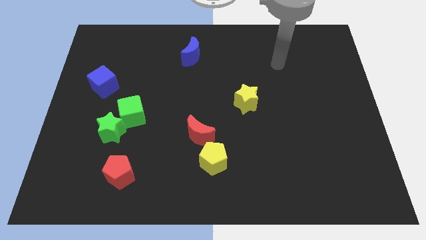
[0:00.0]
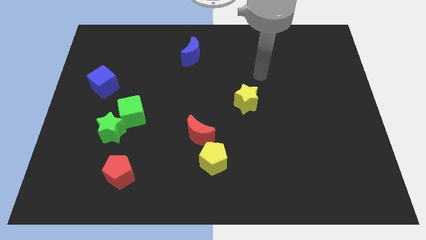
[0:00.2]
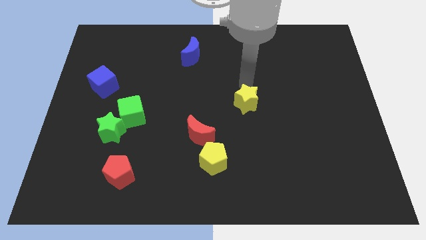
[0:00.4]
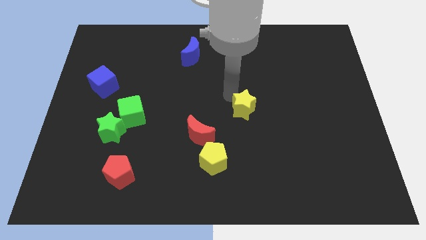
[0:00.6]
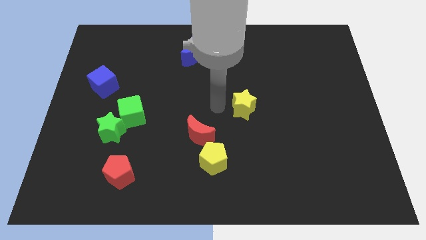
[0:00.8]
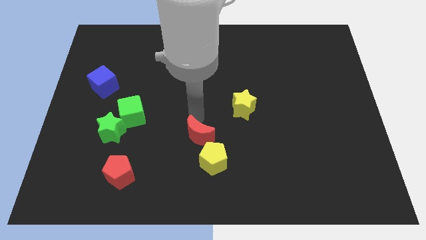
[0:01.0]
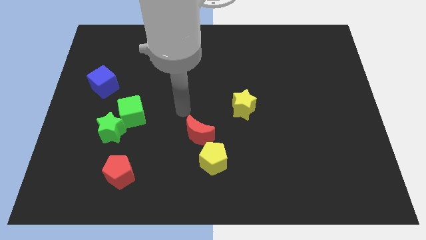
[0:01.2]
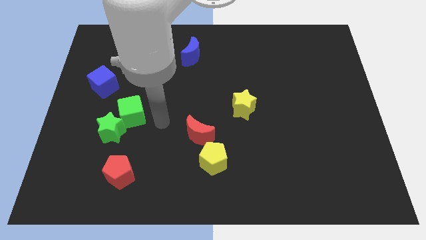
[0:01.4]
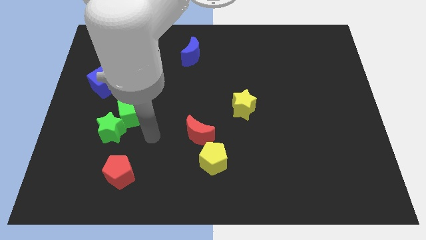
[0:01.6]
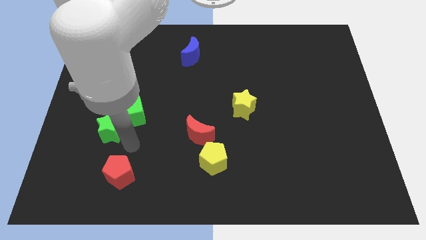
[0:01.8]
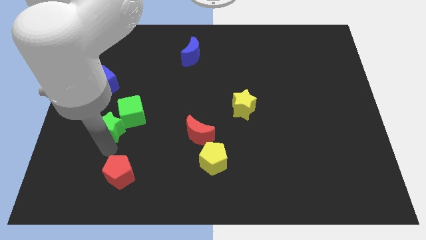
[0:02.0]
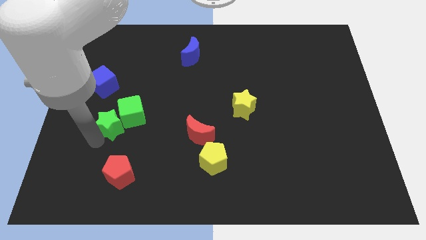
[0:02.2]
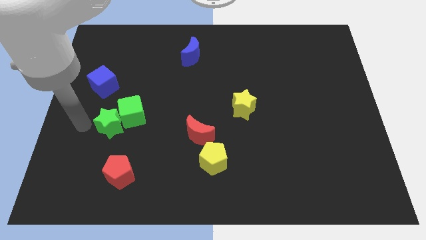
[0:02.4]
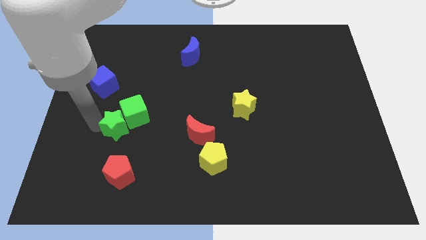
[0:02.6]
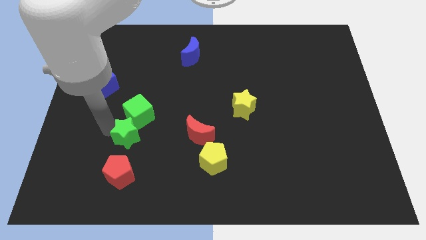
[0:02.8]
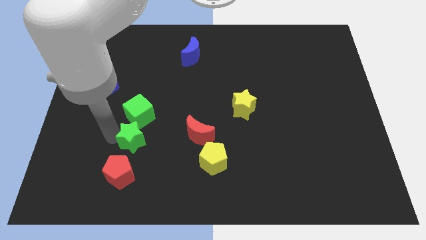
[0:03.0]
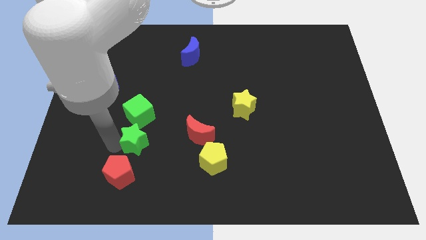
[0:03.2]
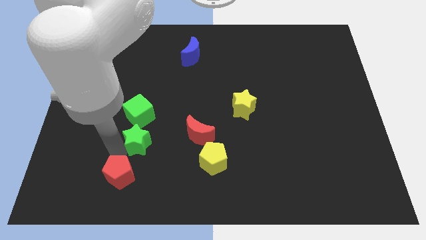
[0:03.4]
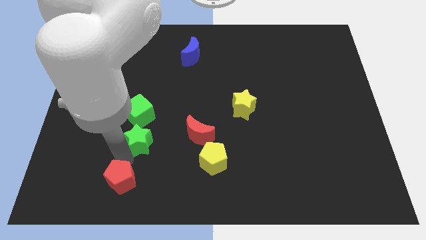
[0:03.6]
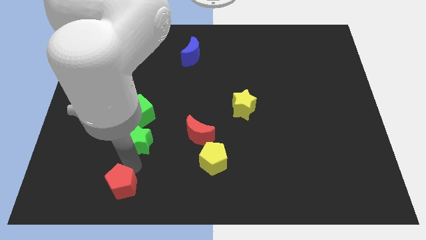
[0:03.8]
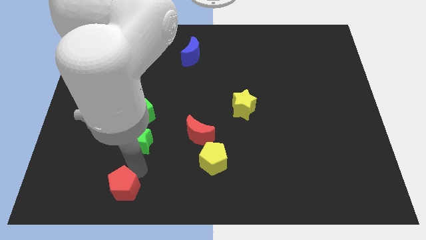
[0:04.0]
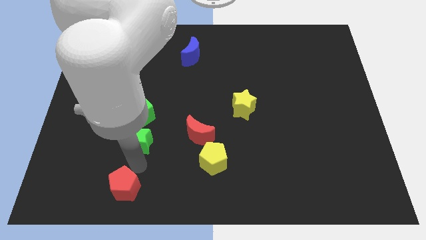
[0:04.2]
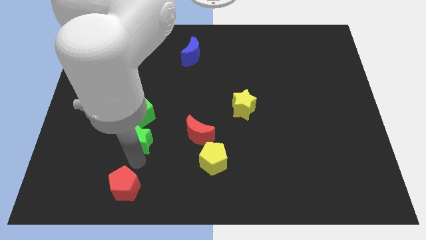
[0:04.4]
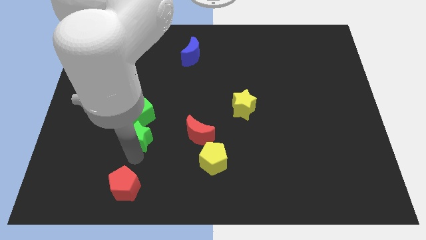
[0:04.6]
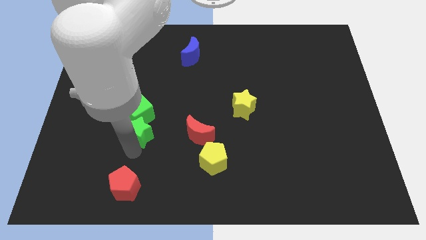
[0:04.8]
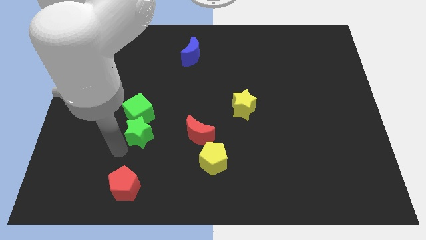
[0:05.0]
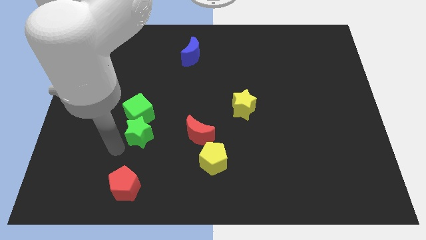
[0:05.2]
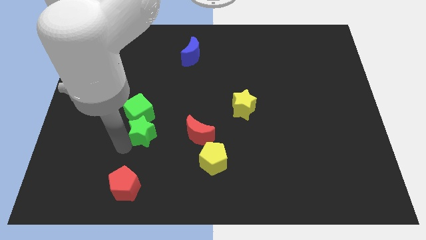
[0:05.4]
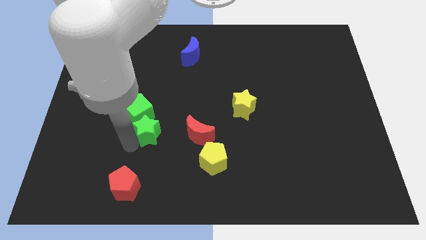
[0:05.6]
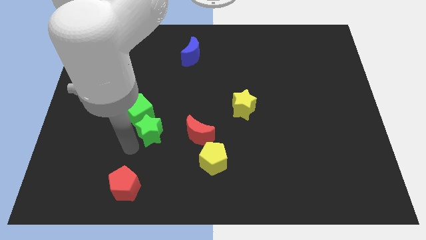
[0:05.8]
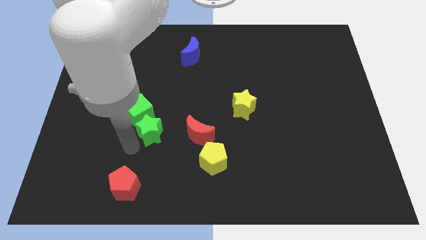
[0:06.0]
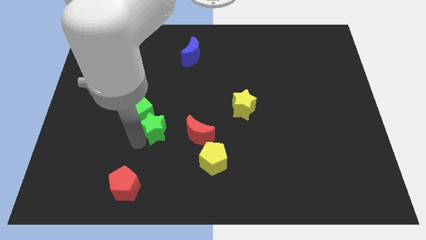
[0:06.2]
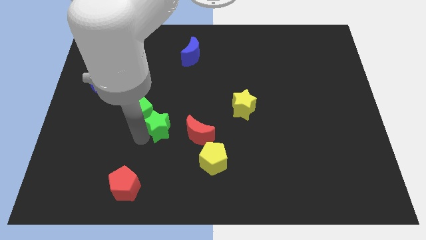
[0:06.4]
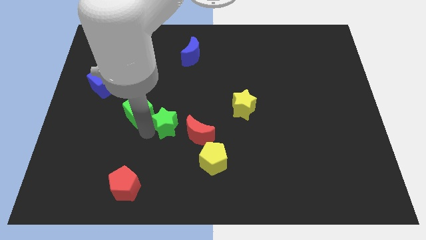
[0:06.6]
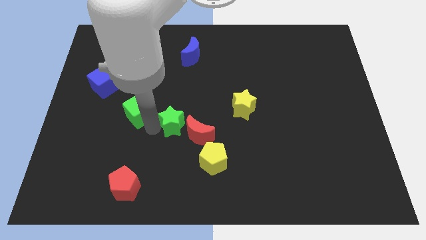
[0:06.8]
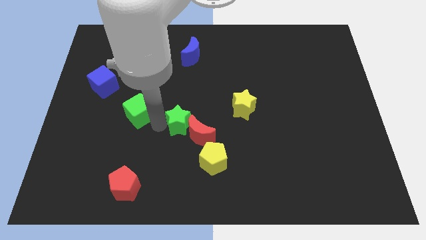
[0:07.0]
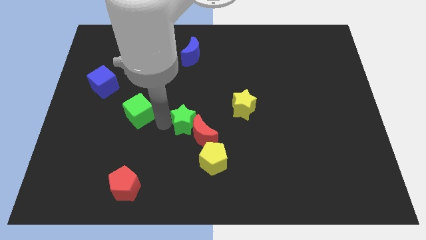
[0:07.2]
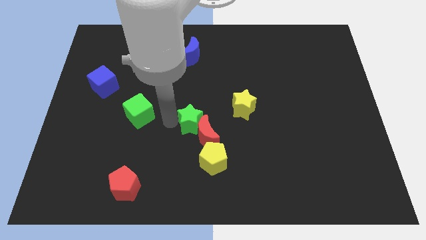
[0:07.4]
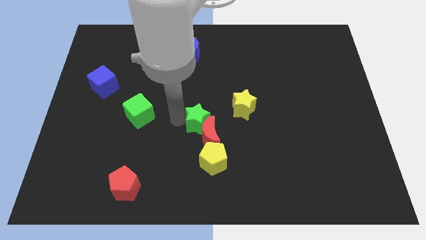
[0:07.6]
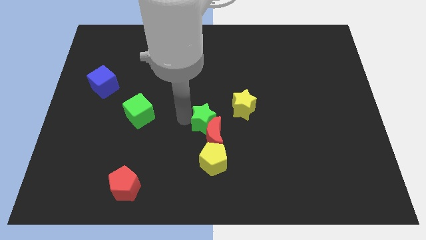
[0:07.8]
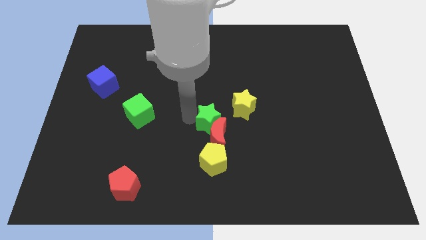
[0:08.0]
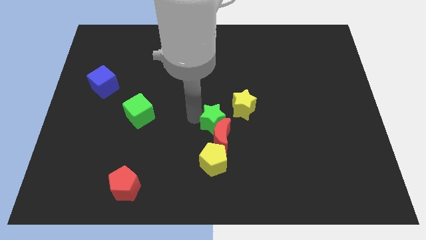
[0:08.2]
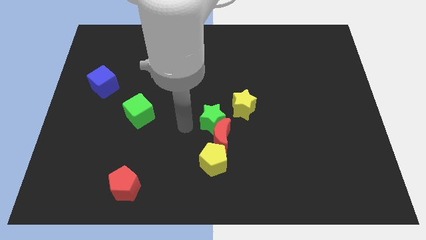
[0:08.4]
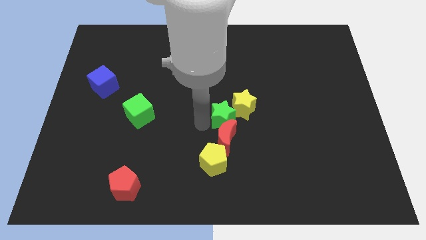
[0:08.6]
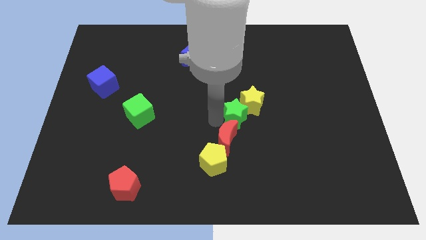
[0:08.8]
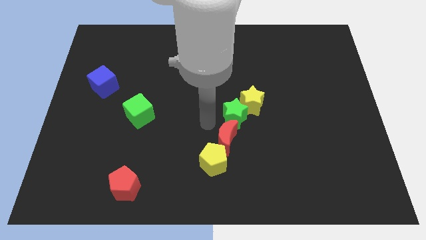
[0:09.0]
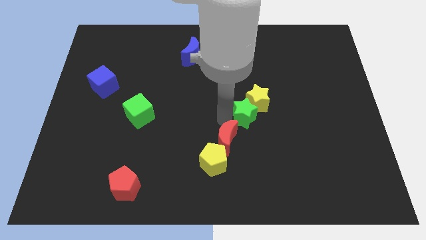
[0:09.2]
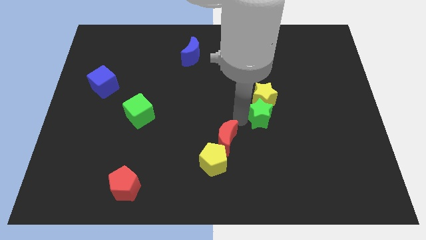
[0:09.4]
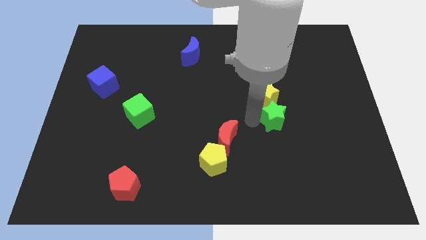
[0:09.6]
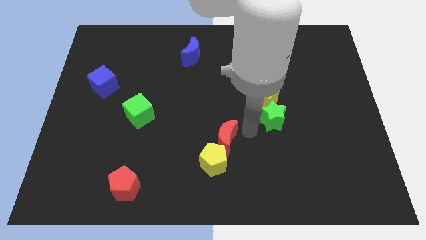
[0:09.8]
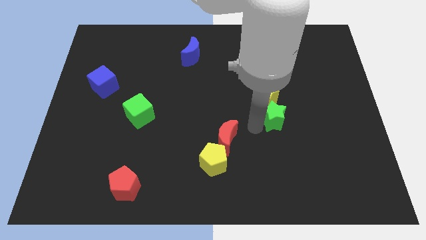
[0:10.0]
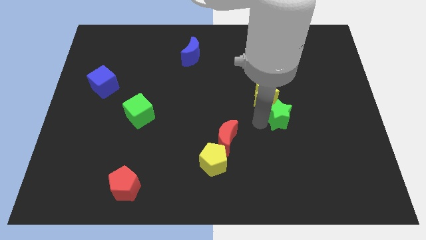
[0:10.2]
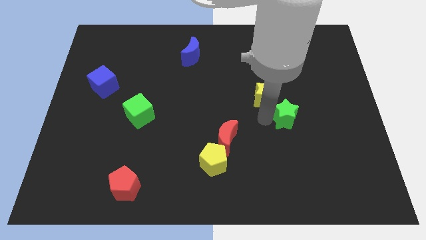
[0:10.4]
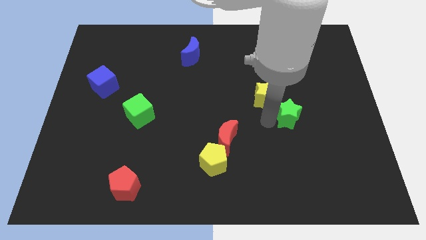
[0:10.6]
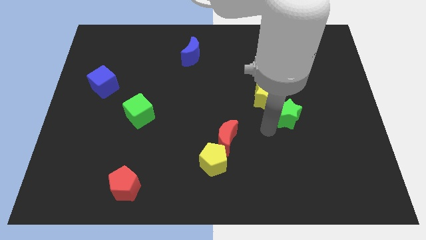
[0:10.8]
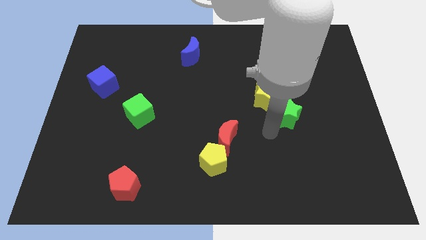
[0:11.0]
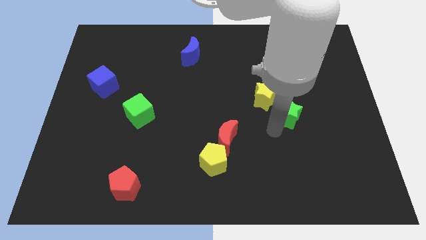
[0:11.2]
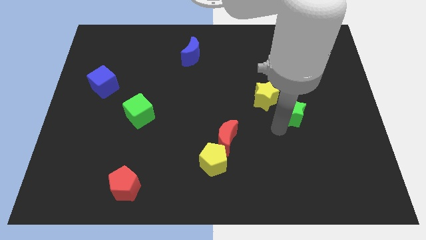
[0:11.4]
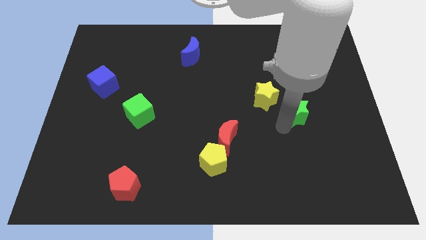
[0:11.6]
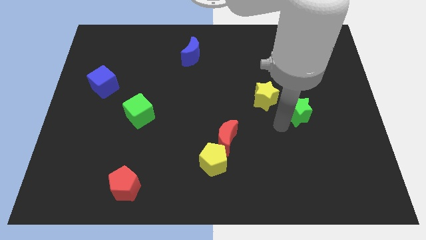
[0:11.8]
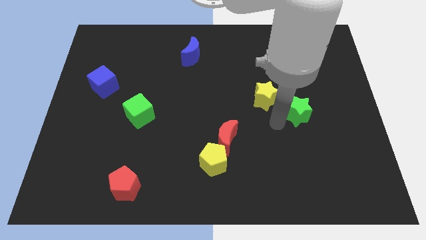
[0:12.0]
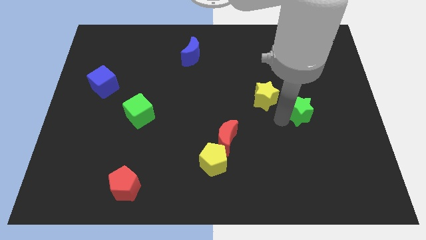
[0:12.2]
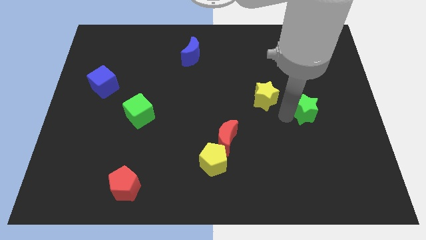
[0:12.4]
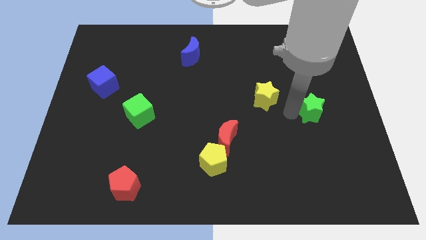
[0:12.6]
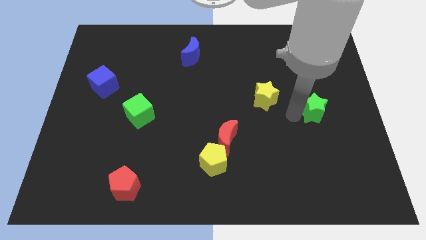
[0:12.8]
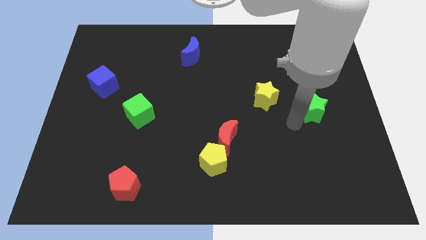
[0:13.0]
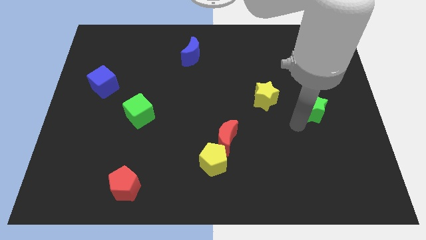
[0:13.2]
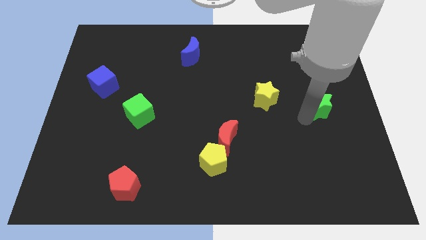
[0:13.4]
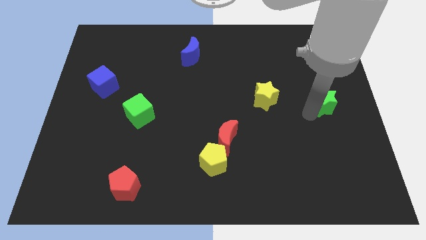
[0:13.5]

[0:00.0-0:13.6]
push the green star to the right side

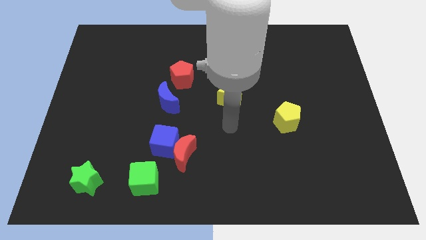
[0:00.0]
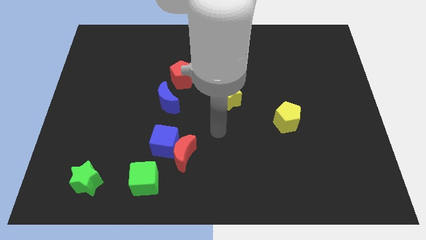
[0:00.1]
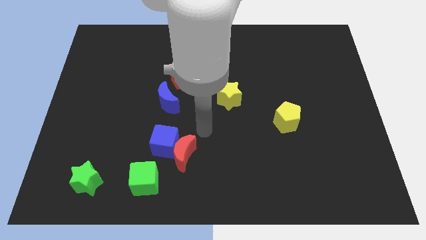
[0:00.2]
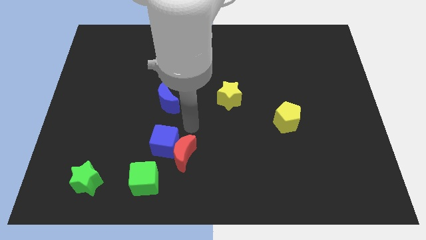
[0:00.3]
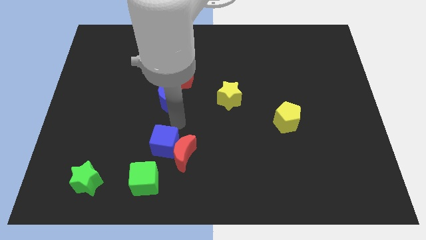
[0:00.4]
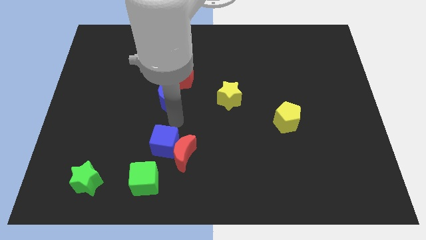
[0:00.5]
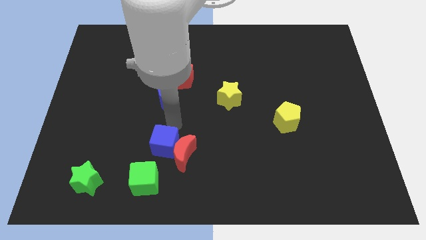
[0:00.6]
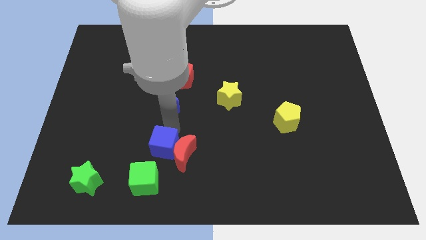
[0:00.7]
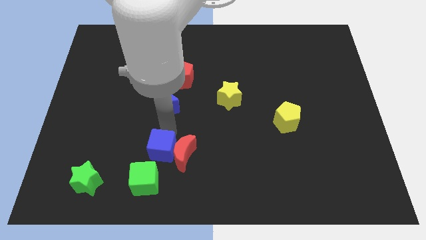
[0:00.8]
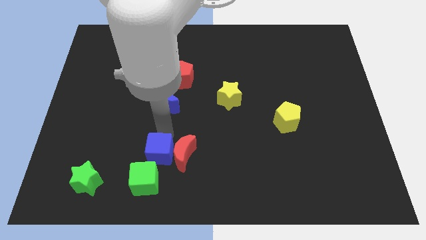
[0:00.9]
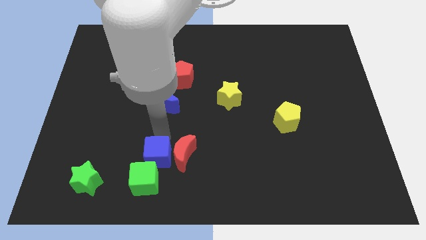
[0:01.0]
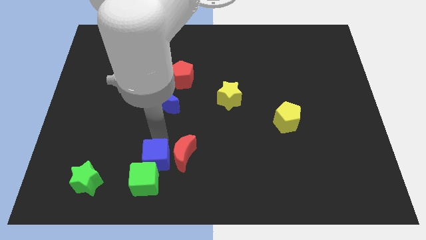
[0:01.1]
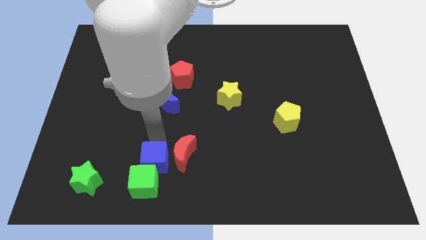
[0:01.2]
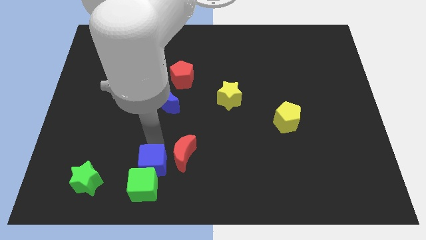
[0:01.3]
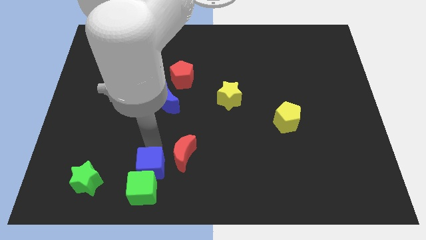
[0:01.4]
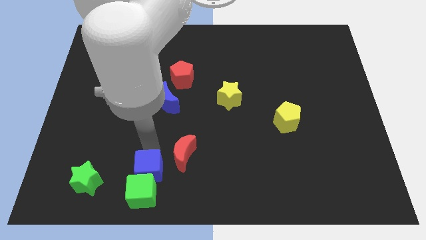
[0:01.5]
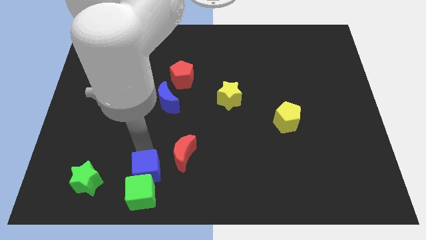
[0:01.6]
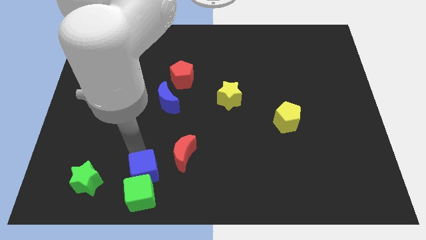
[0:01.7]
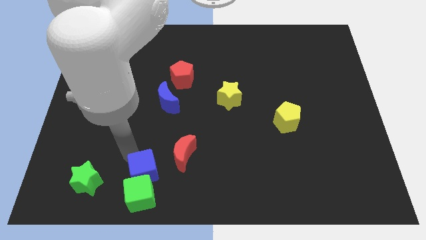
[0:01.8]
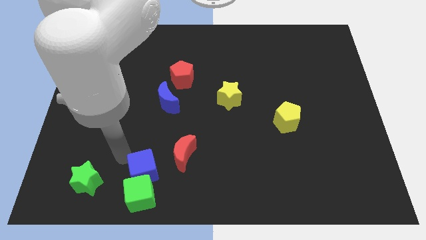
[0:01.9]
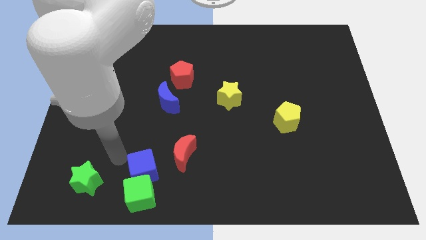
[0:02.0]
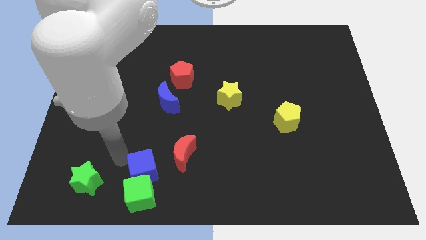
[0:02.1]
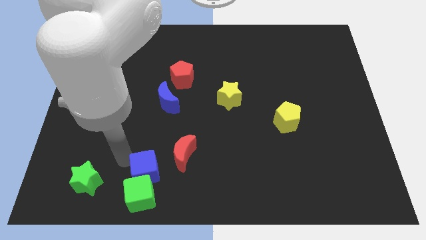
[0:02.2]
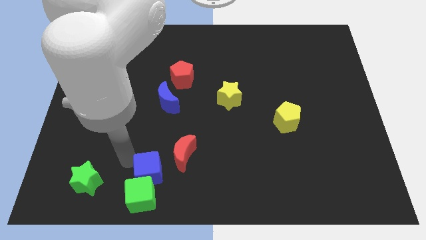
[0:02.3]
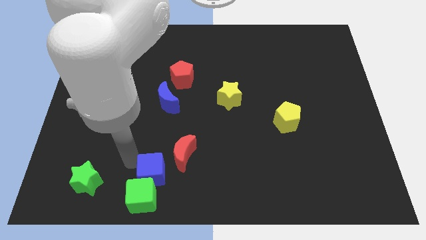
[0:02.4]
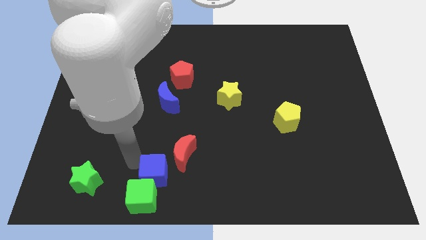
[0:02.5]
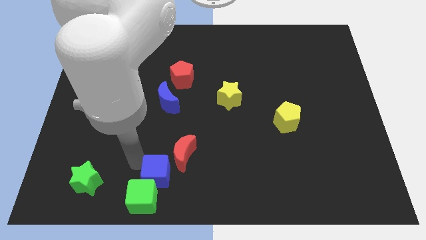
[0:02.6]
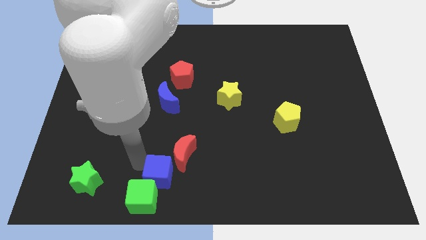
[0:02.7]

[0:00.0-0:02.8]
put the blue cube to the bottom
